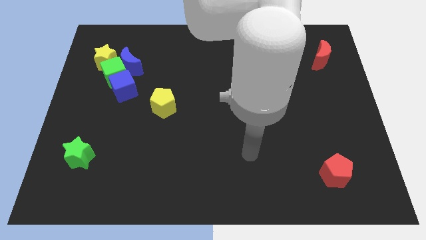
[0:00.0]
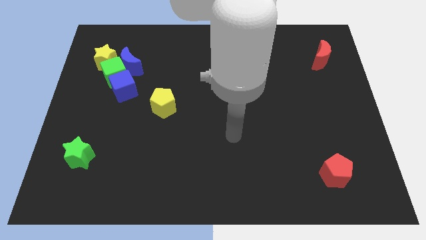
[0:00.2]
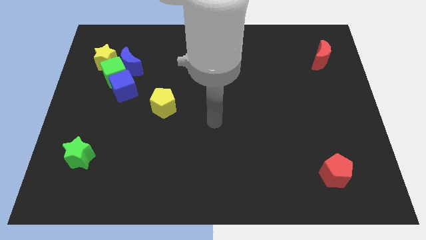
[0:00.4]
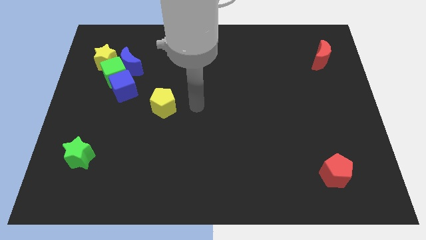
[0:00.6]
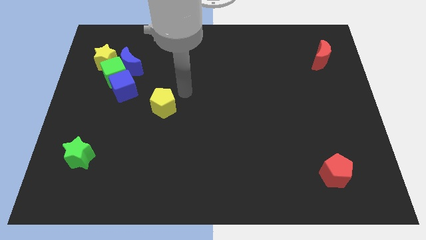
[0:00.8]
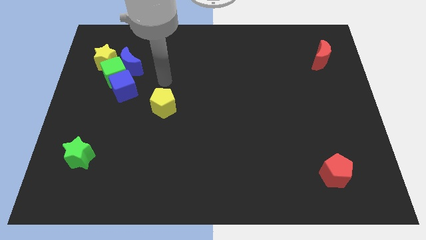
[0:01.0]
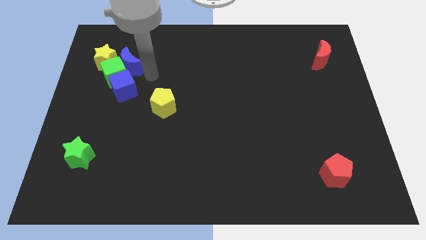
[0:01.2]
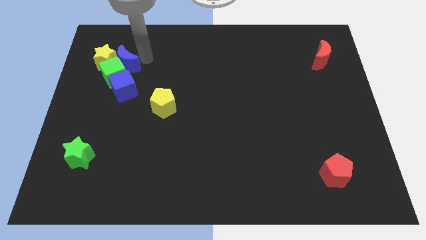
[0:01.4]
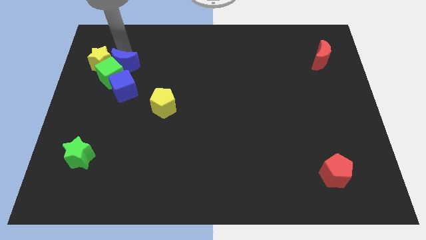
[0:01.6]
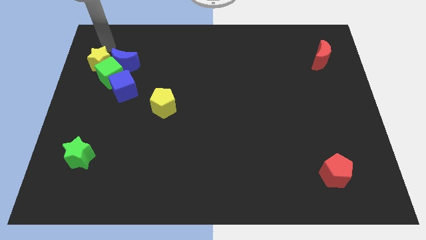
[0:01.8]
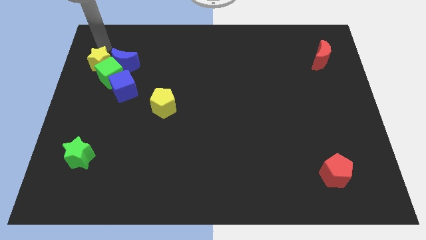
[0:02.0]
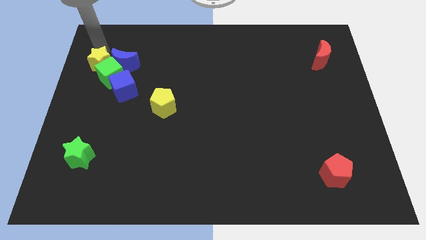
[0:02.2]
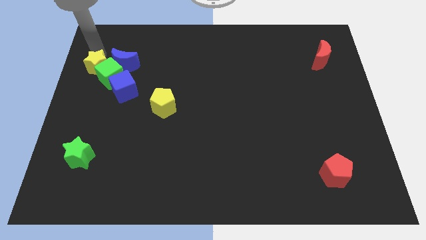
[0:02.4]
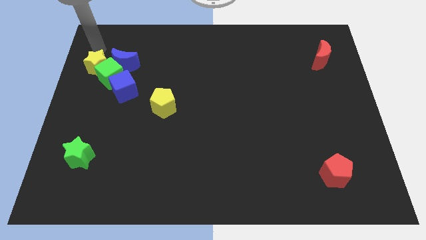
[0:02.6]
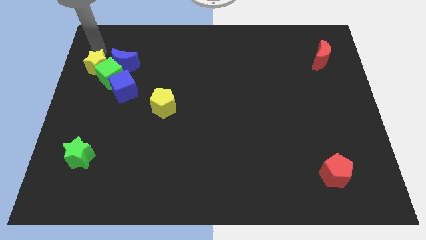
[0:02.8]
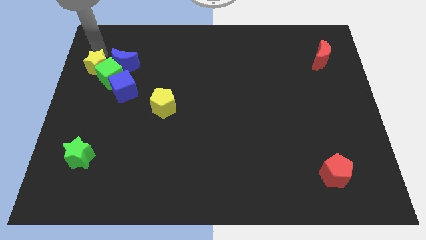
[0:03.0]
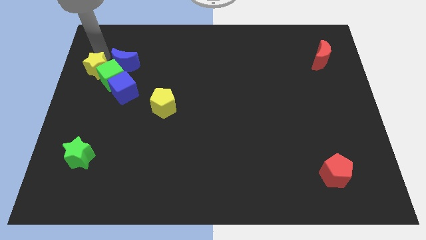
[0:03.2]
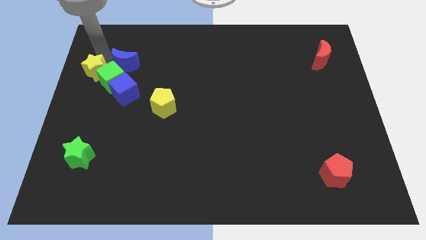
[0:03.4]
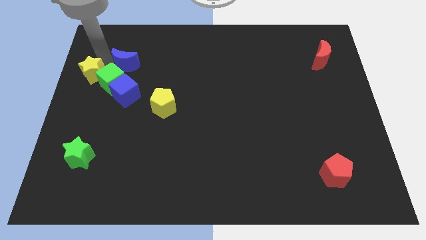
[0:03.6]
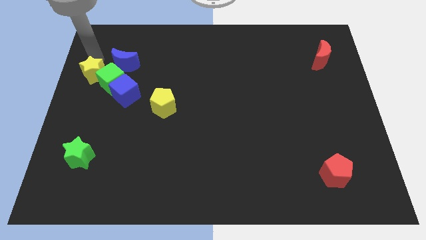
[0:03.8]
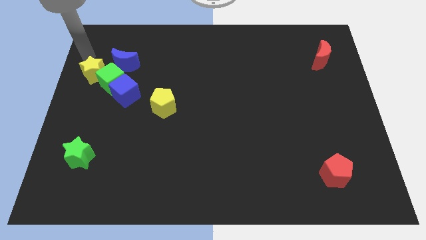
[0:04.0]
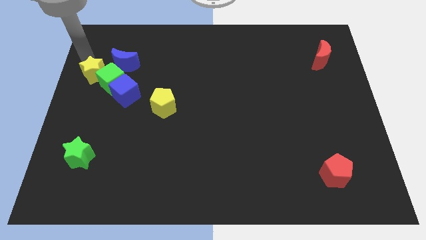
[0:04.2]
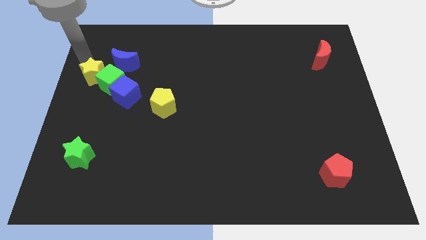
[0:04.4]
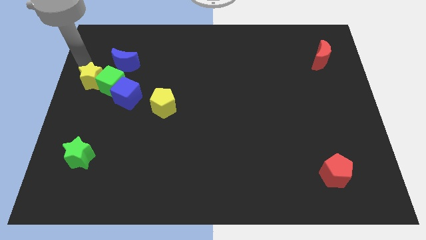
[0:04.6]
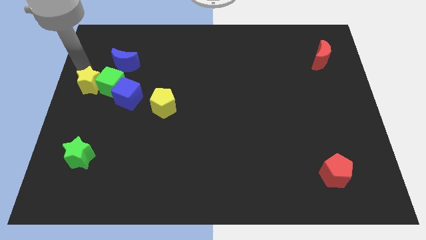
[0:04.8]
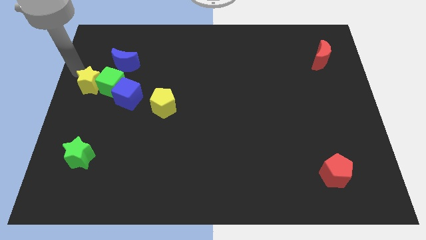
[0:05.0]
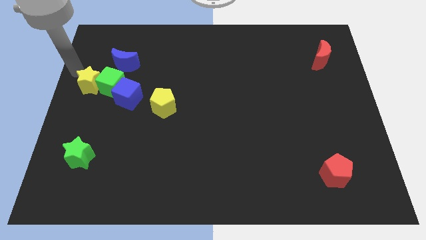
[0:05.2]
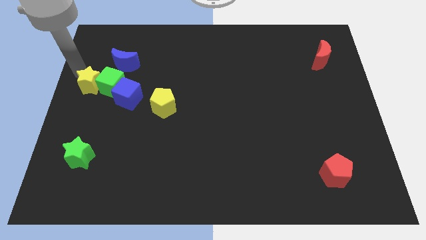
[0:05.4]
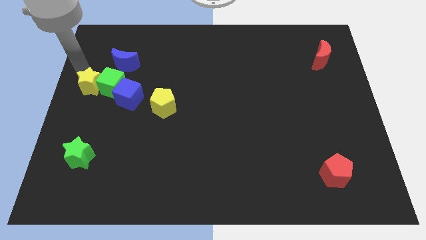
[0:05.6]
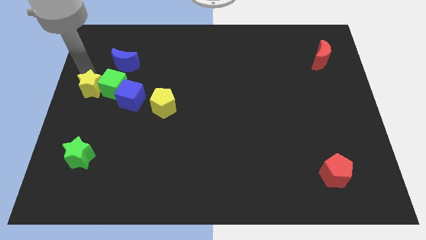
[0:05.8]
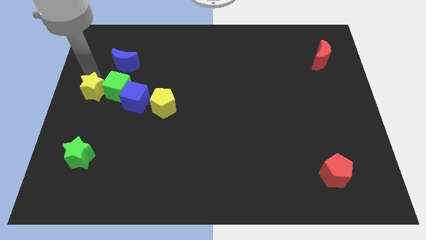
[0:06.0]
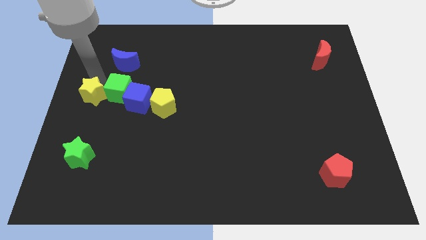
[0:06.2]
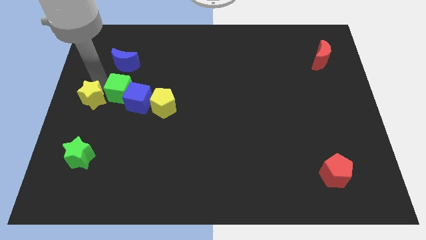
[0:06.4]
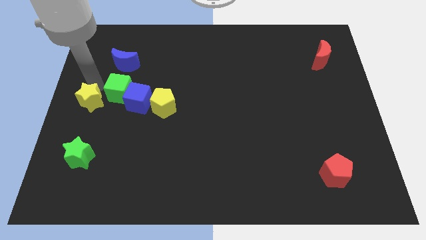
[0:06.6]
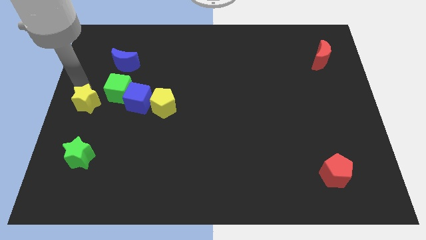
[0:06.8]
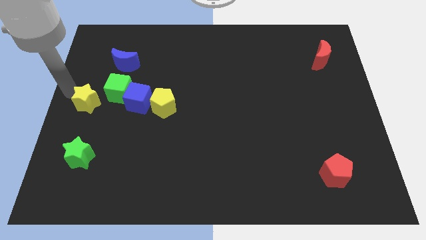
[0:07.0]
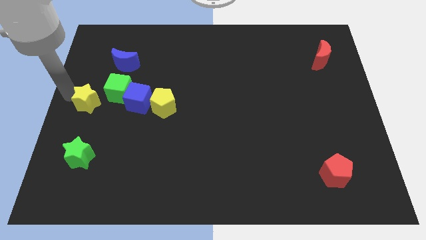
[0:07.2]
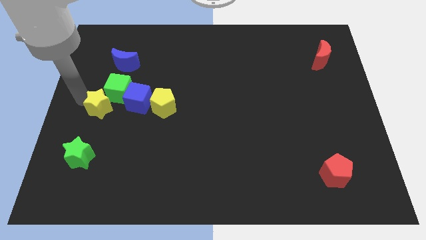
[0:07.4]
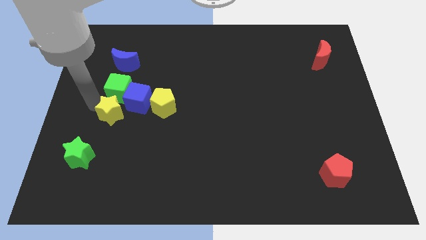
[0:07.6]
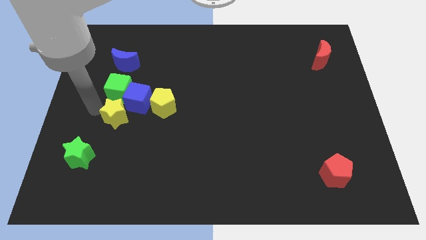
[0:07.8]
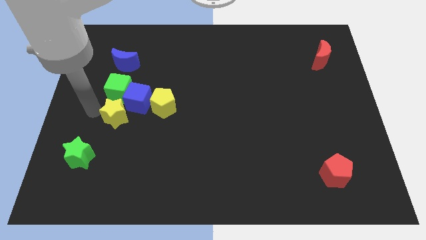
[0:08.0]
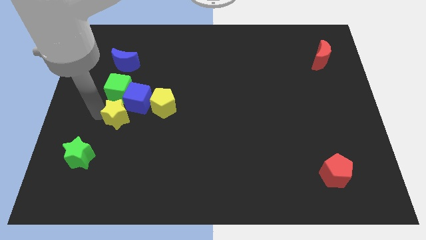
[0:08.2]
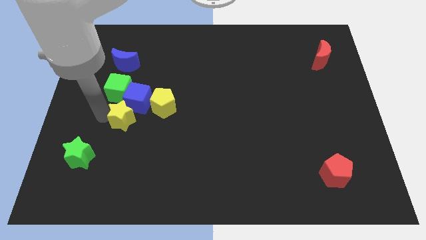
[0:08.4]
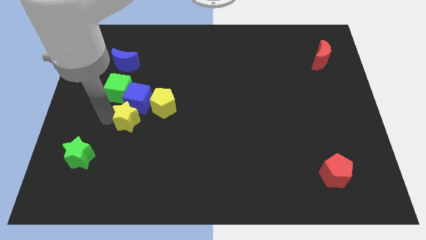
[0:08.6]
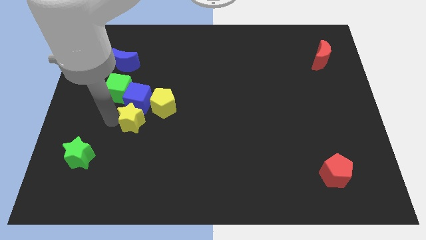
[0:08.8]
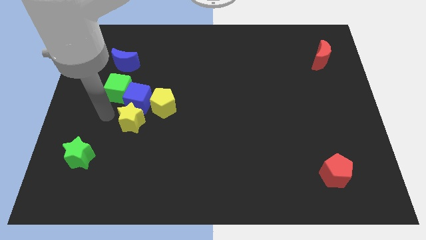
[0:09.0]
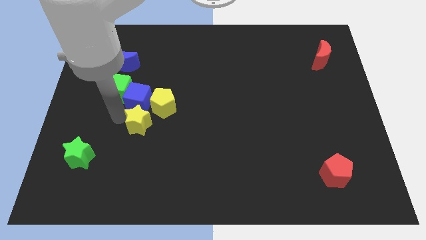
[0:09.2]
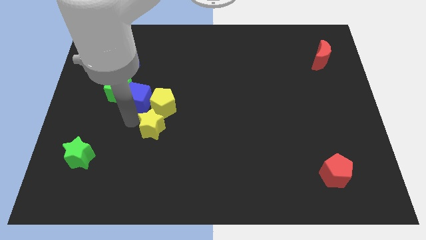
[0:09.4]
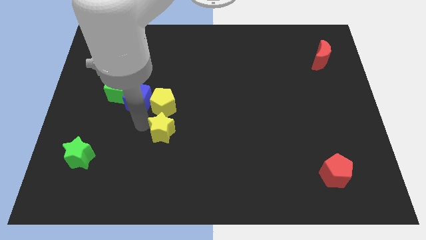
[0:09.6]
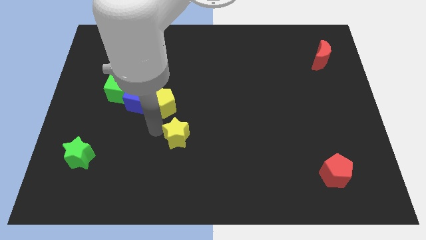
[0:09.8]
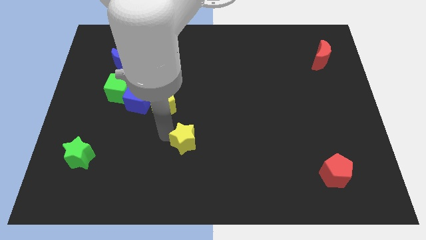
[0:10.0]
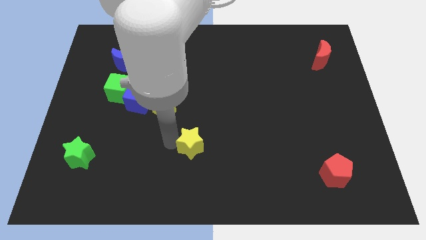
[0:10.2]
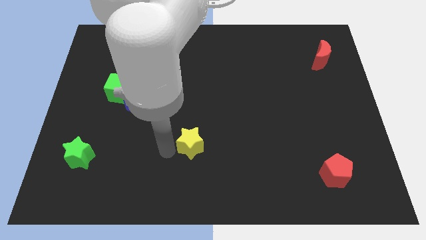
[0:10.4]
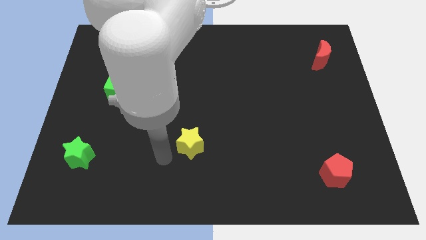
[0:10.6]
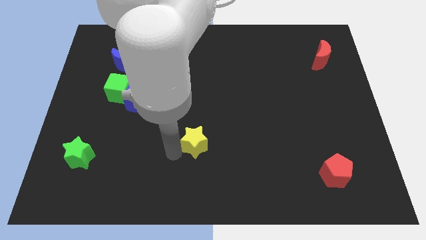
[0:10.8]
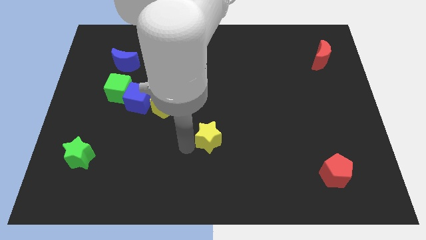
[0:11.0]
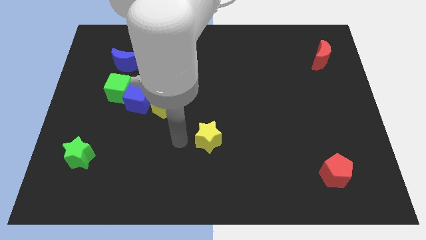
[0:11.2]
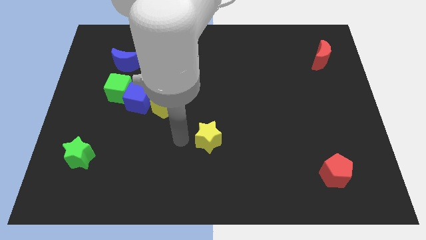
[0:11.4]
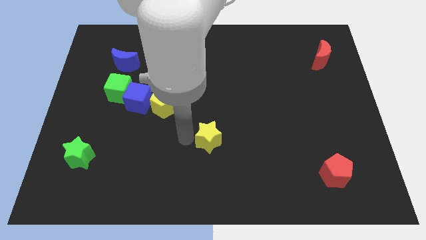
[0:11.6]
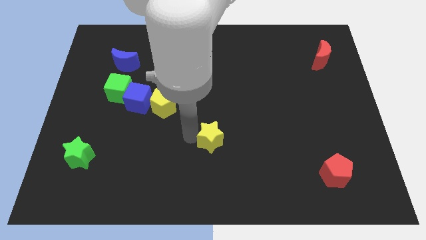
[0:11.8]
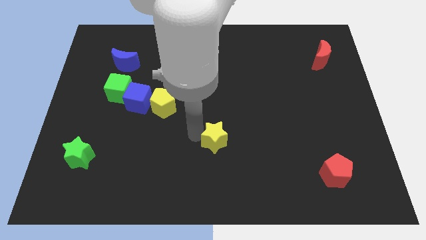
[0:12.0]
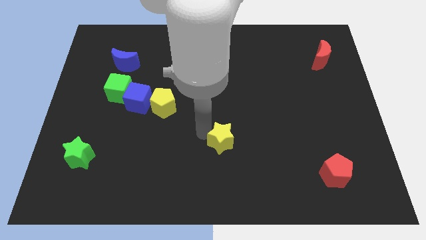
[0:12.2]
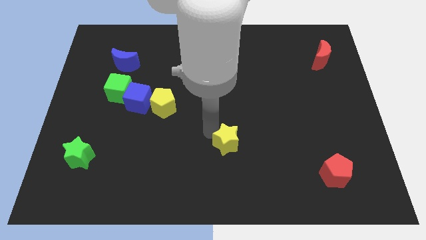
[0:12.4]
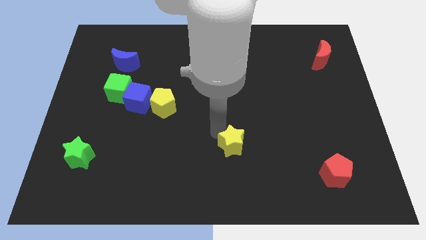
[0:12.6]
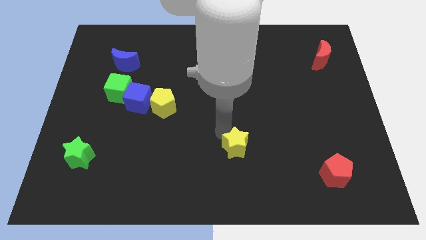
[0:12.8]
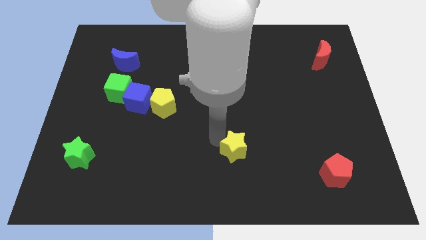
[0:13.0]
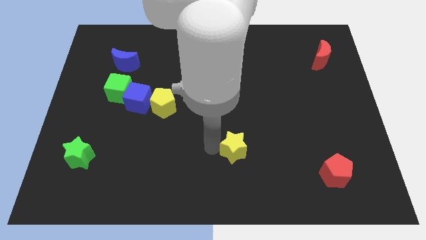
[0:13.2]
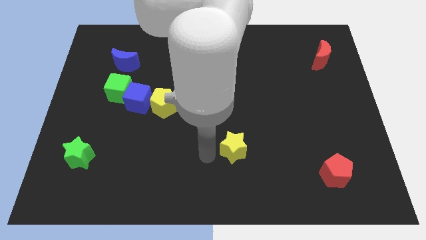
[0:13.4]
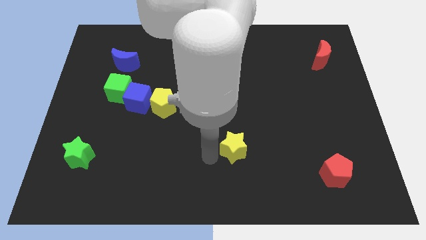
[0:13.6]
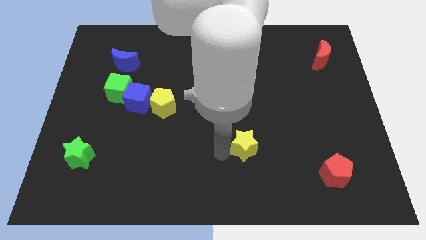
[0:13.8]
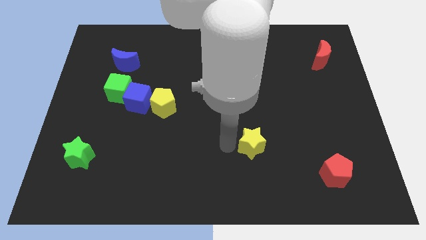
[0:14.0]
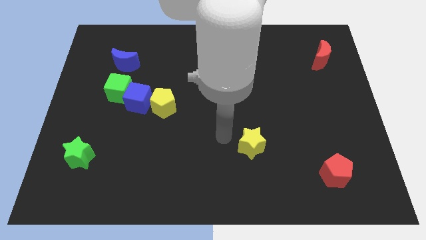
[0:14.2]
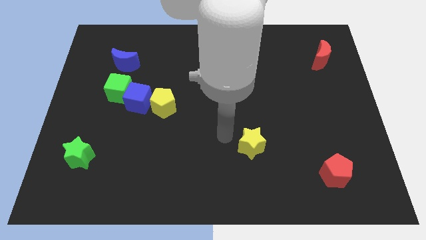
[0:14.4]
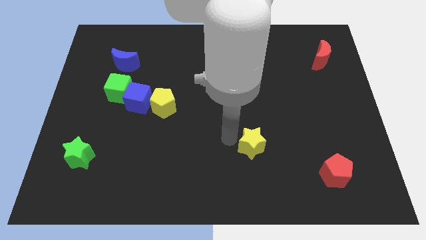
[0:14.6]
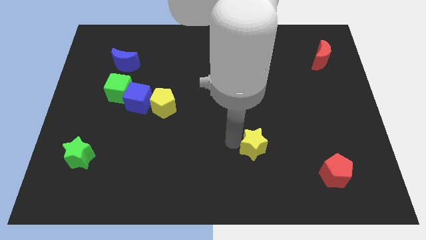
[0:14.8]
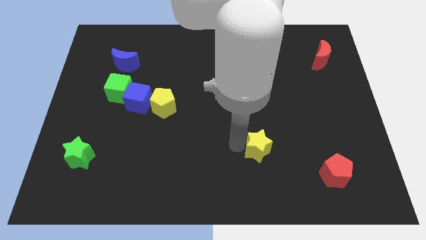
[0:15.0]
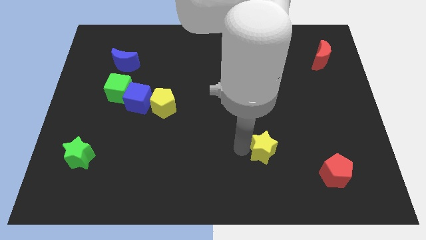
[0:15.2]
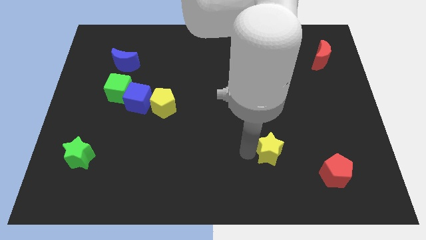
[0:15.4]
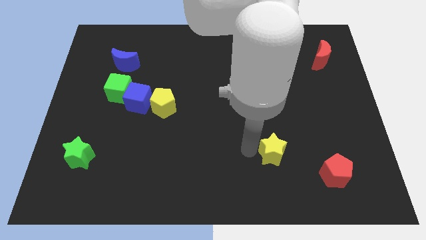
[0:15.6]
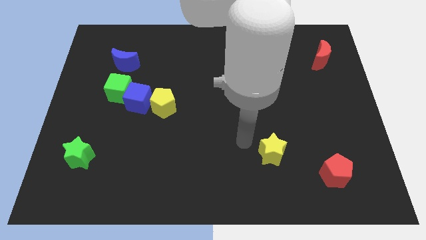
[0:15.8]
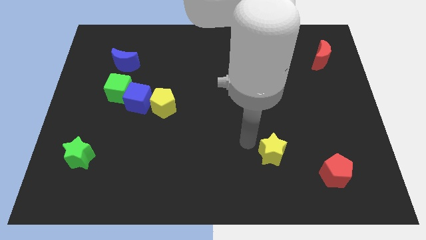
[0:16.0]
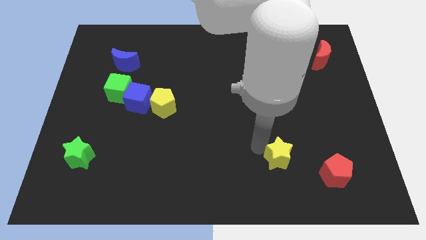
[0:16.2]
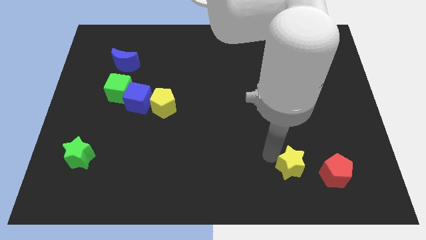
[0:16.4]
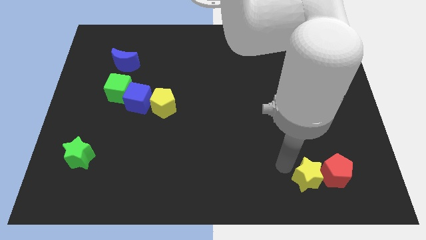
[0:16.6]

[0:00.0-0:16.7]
put the yellow star towards the red pentagon
